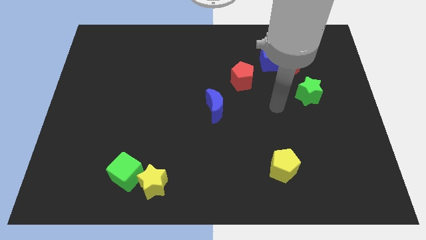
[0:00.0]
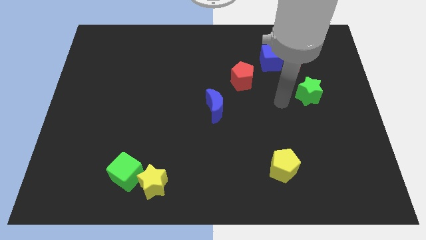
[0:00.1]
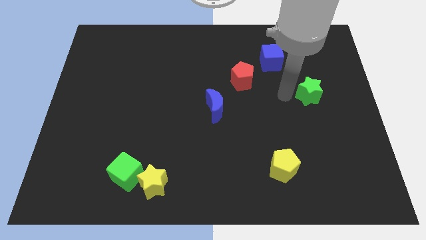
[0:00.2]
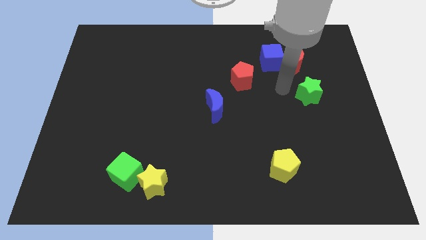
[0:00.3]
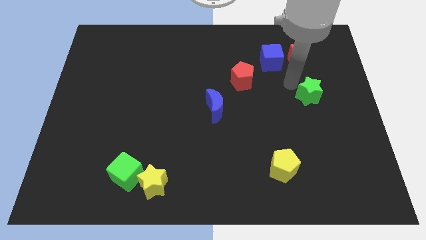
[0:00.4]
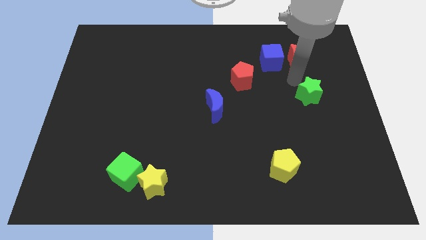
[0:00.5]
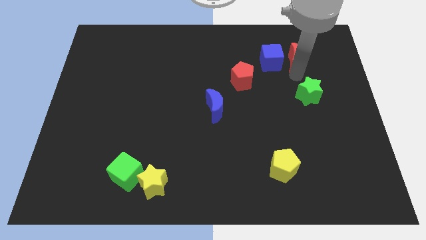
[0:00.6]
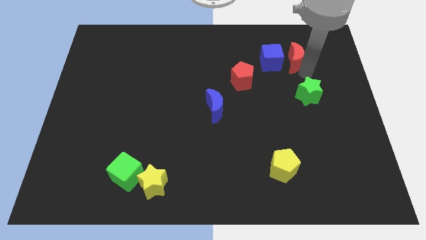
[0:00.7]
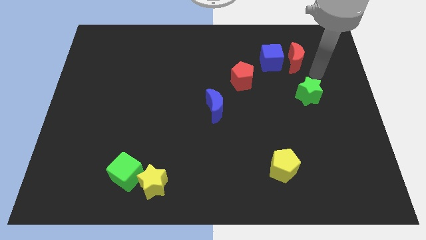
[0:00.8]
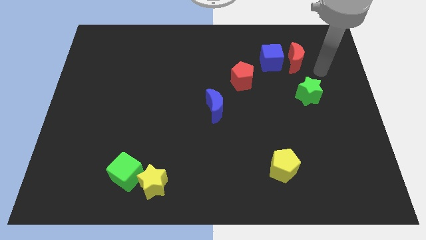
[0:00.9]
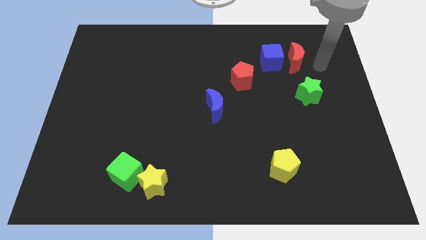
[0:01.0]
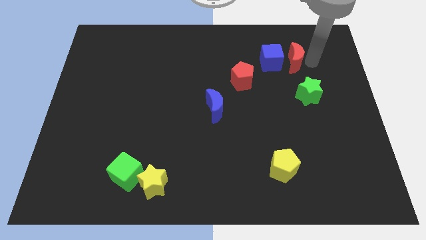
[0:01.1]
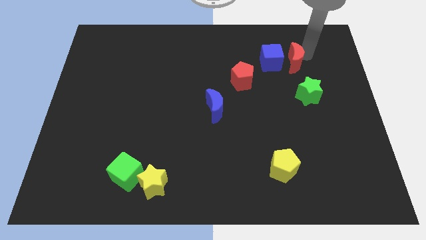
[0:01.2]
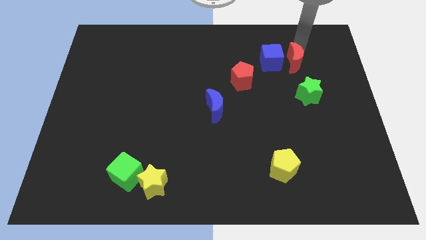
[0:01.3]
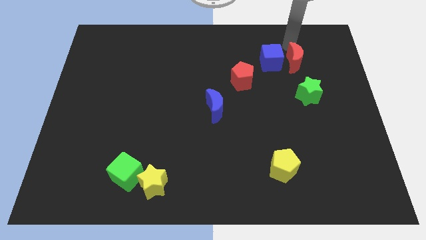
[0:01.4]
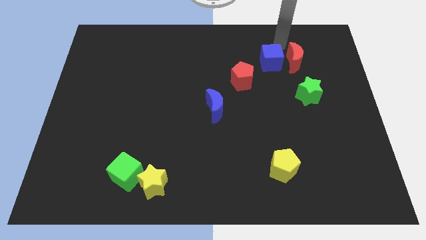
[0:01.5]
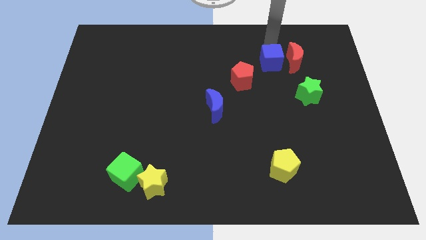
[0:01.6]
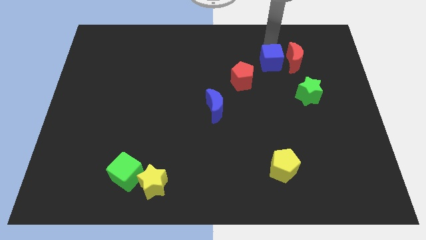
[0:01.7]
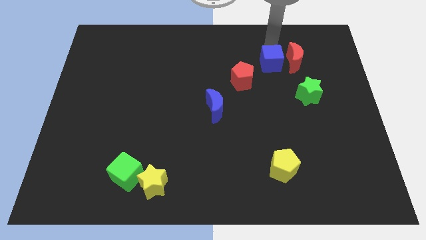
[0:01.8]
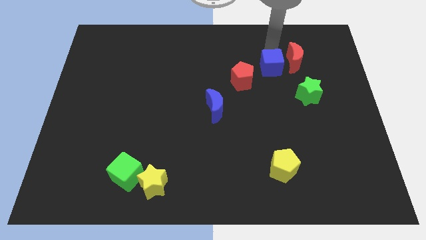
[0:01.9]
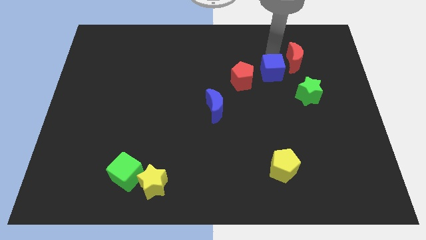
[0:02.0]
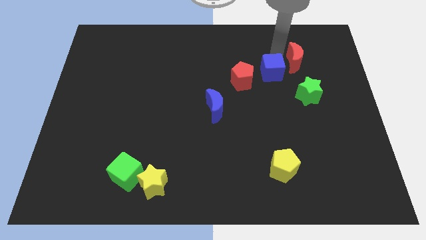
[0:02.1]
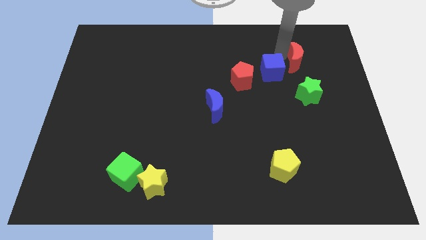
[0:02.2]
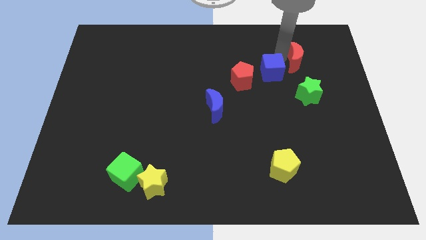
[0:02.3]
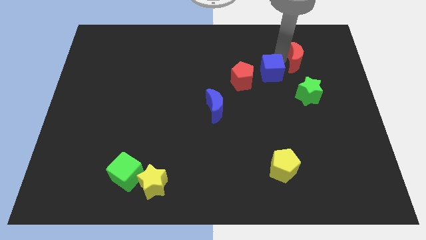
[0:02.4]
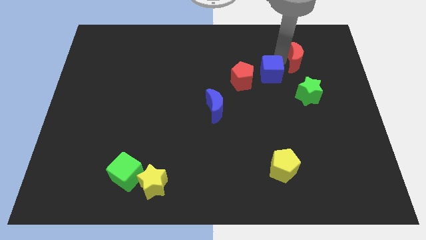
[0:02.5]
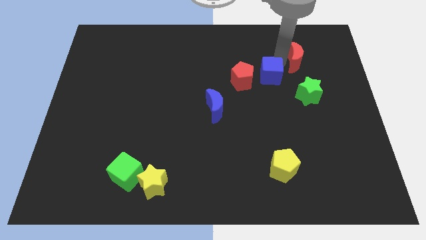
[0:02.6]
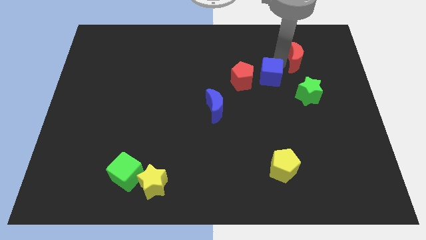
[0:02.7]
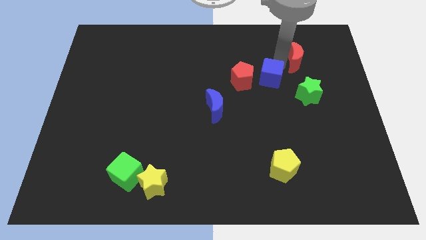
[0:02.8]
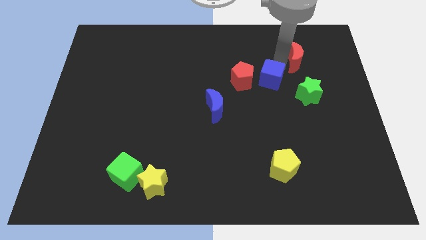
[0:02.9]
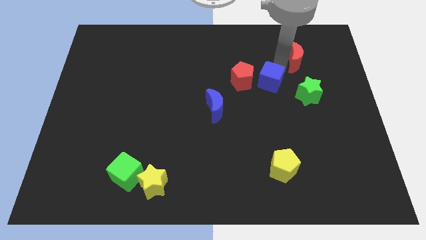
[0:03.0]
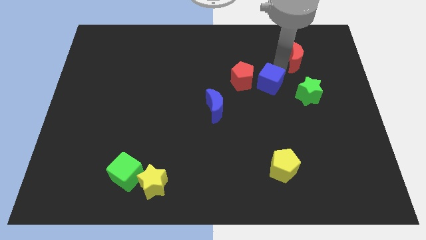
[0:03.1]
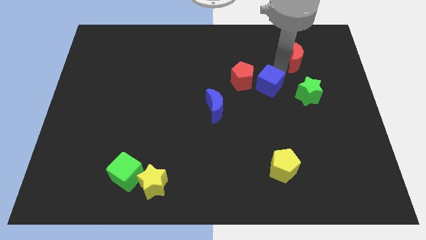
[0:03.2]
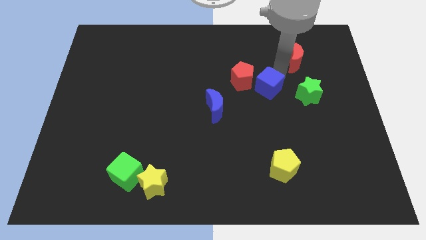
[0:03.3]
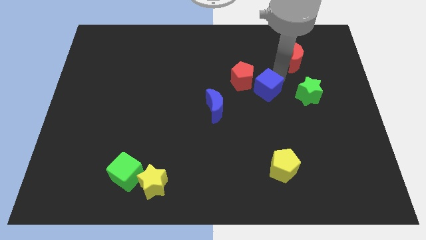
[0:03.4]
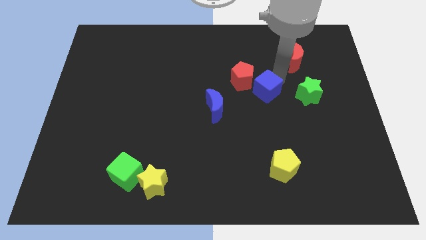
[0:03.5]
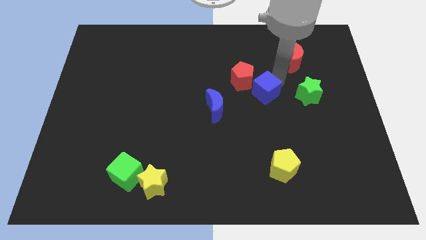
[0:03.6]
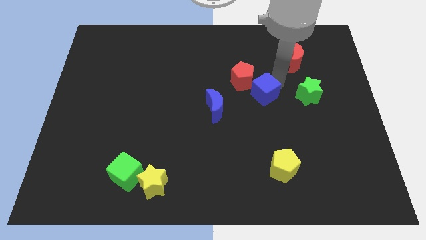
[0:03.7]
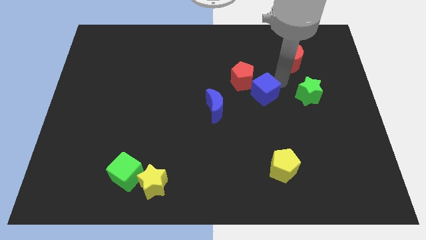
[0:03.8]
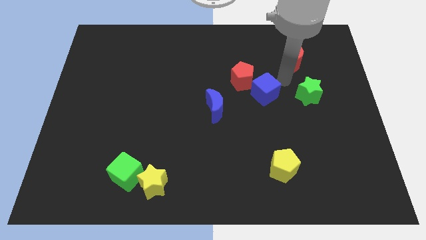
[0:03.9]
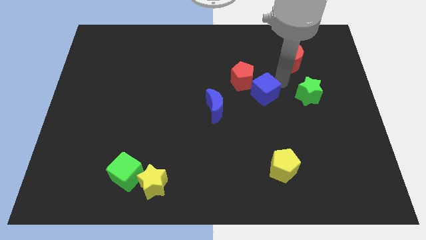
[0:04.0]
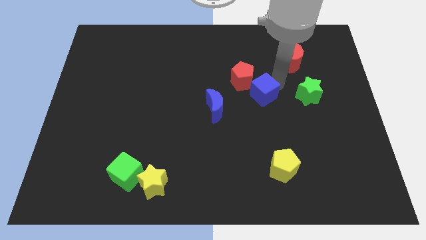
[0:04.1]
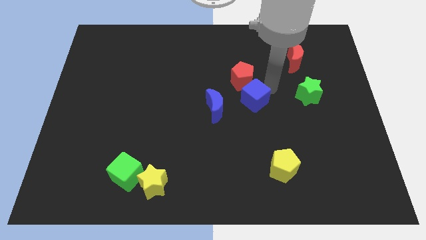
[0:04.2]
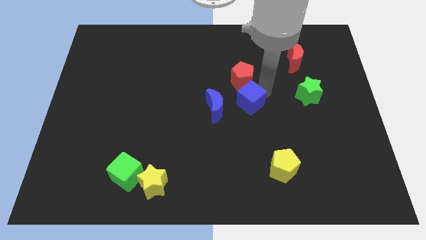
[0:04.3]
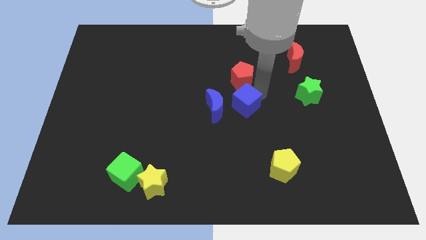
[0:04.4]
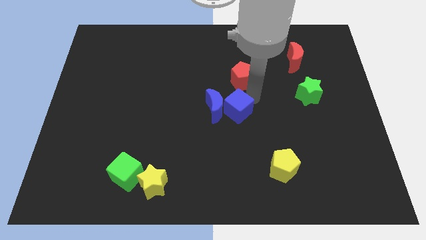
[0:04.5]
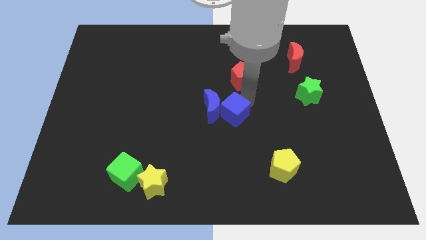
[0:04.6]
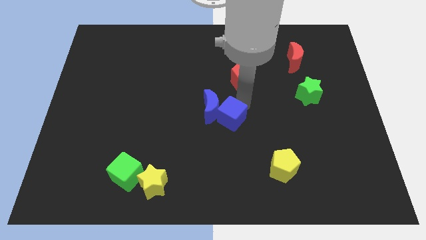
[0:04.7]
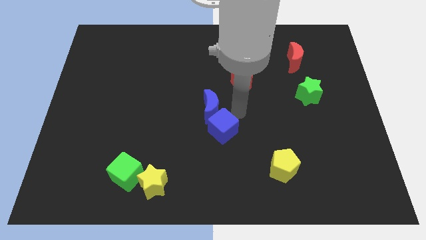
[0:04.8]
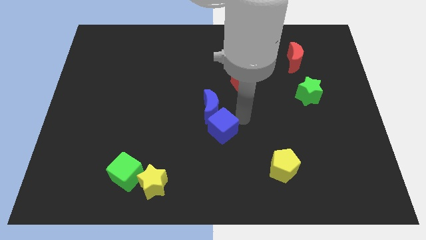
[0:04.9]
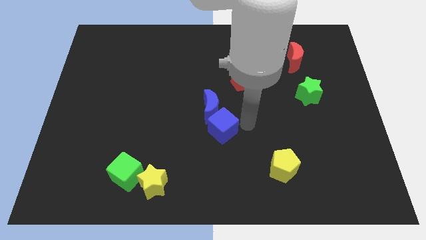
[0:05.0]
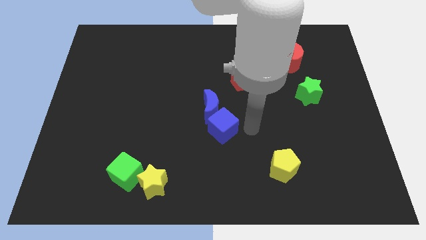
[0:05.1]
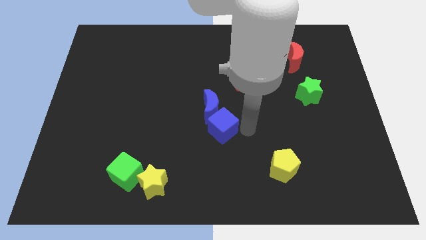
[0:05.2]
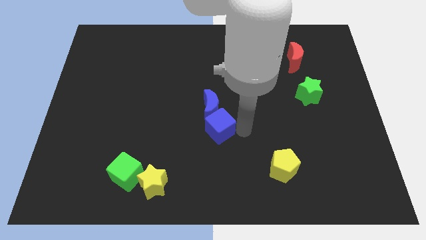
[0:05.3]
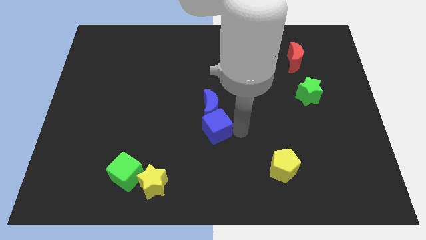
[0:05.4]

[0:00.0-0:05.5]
put the blue cube diagonally down and to the left of the blue moon

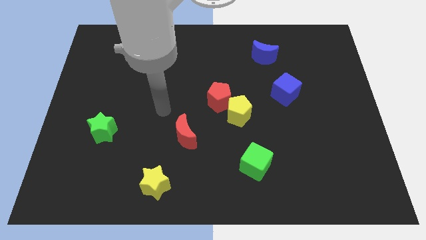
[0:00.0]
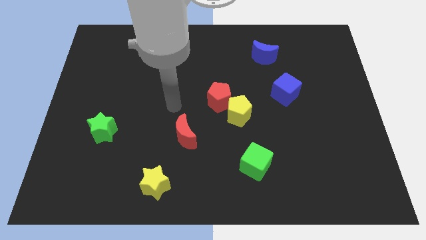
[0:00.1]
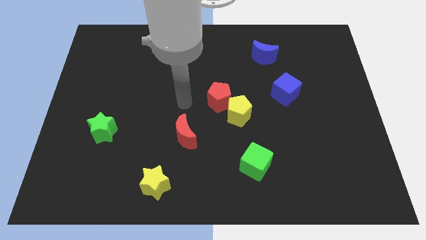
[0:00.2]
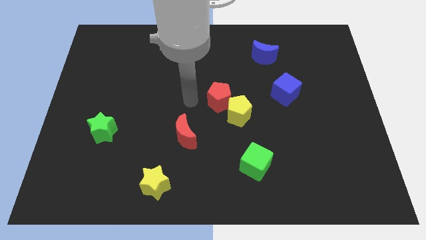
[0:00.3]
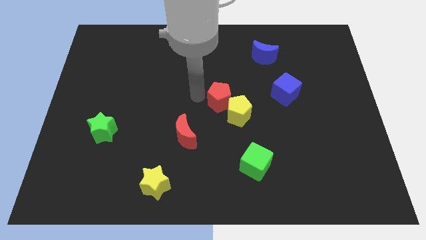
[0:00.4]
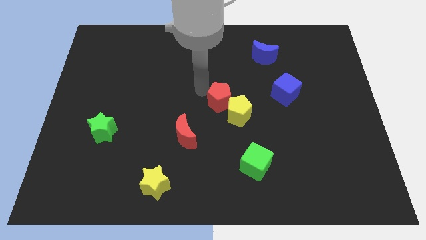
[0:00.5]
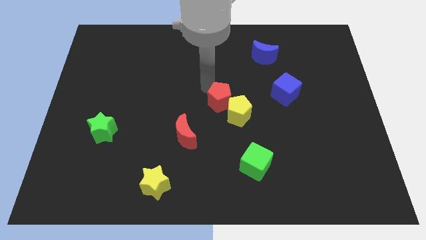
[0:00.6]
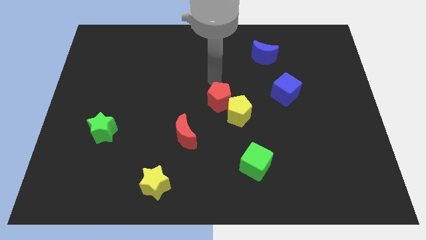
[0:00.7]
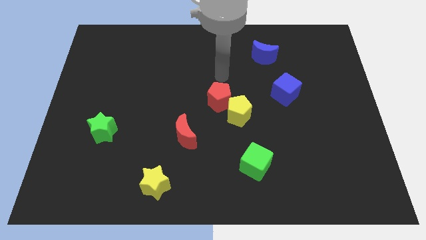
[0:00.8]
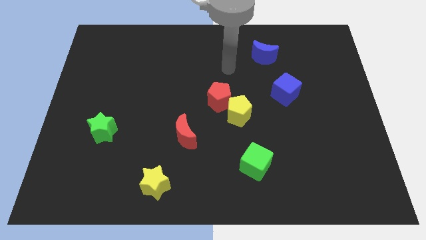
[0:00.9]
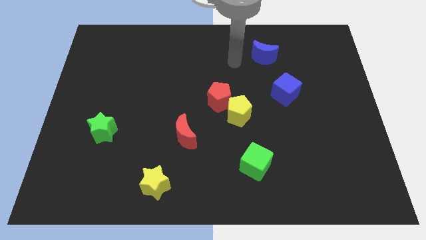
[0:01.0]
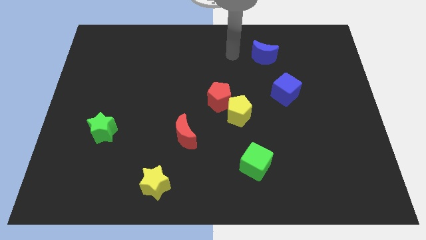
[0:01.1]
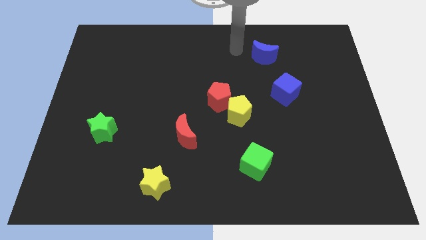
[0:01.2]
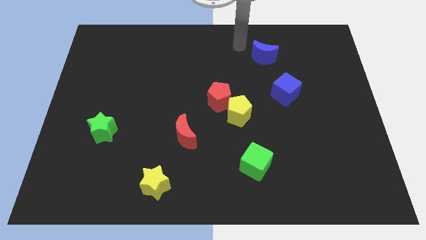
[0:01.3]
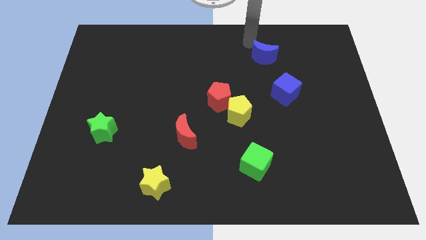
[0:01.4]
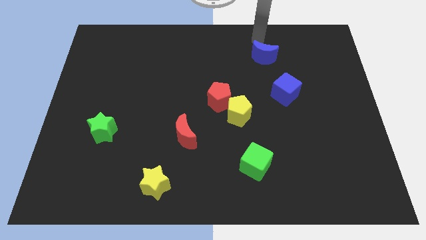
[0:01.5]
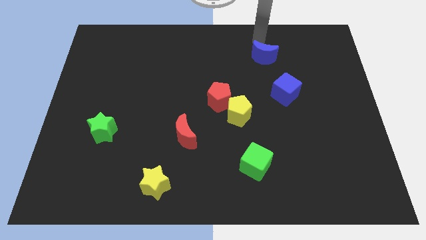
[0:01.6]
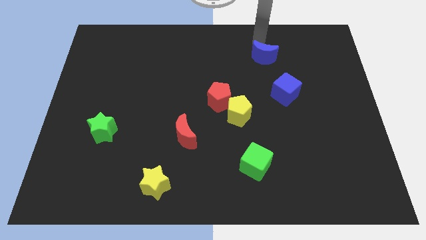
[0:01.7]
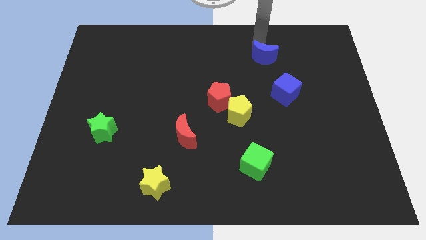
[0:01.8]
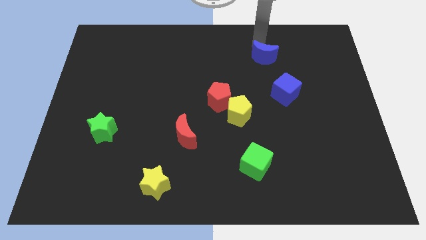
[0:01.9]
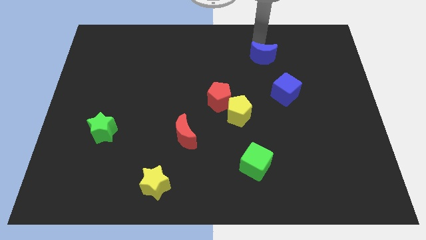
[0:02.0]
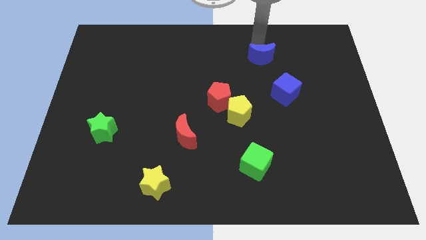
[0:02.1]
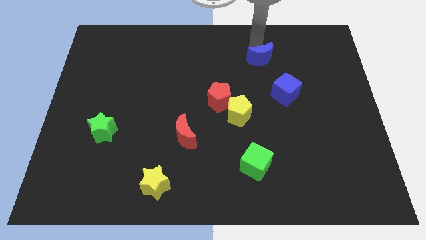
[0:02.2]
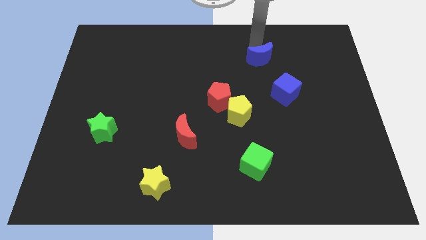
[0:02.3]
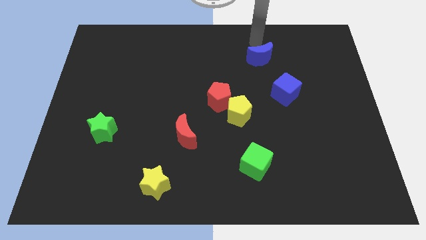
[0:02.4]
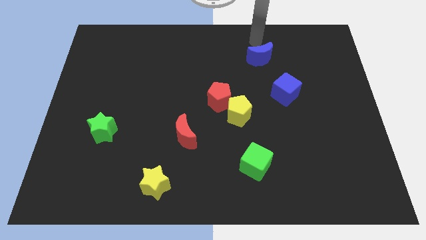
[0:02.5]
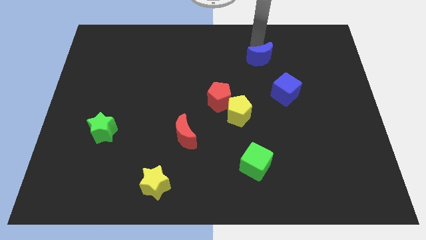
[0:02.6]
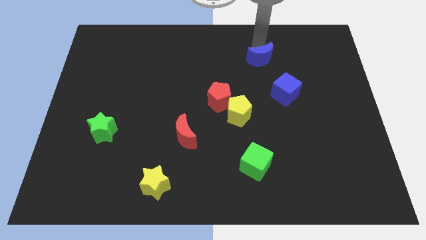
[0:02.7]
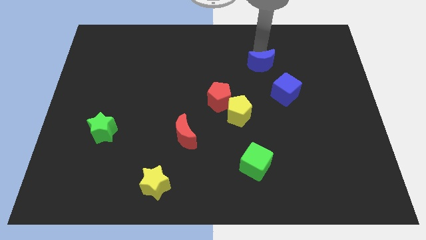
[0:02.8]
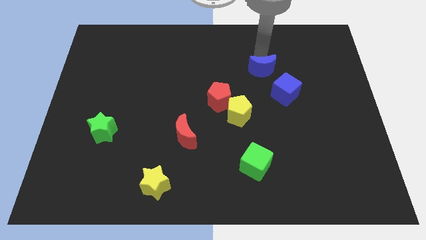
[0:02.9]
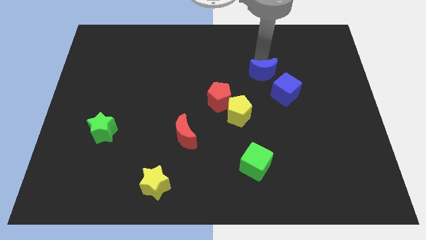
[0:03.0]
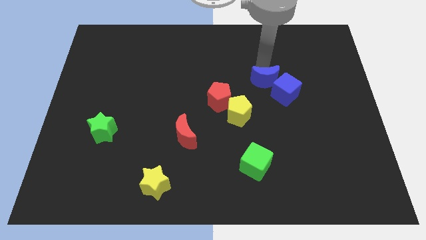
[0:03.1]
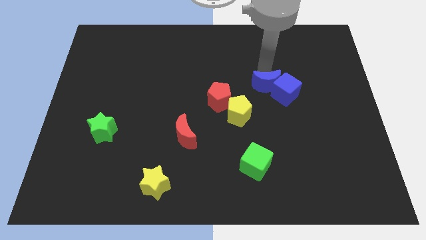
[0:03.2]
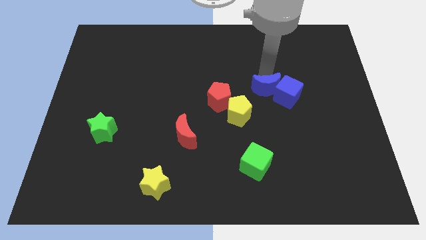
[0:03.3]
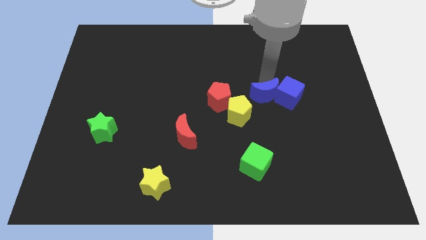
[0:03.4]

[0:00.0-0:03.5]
push the blue moon to the bottom left of the blue cube
